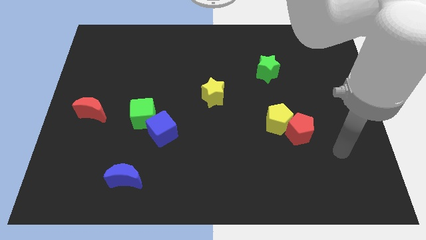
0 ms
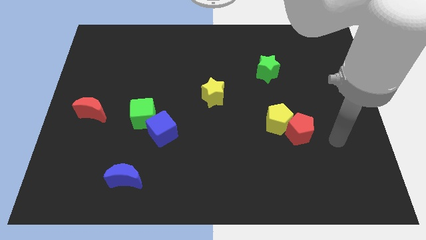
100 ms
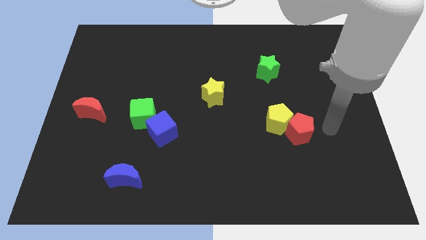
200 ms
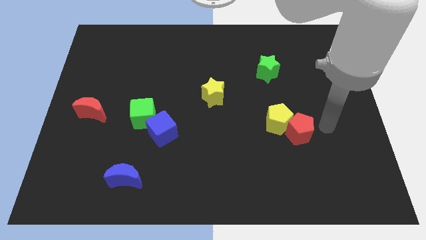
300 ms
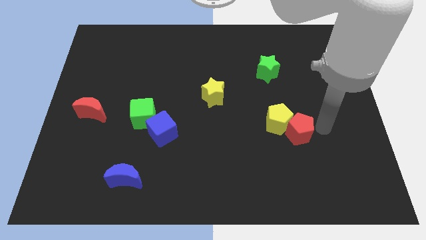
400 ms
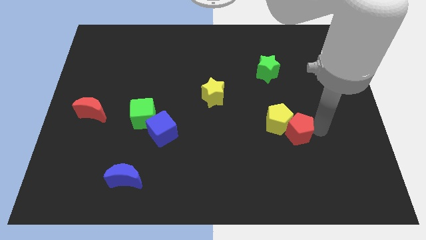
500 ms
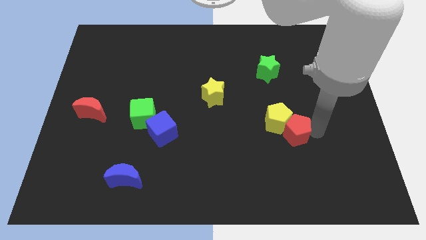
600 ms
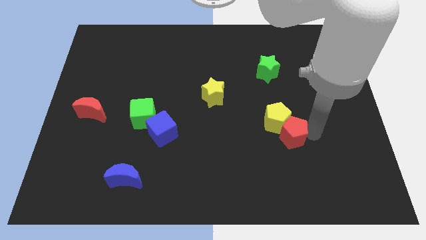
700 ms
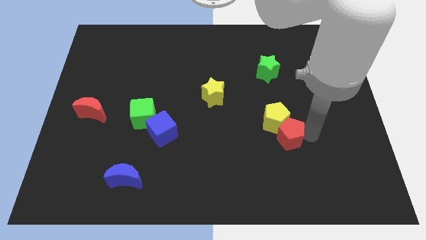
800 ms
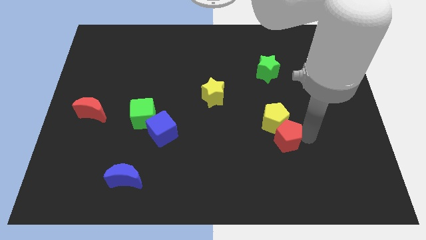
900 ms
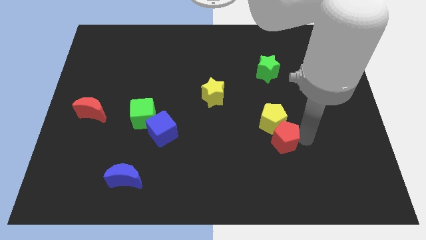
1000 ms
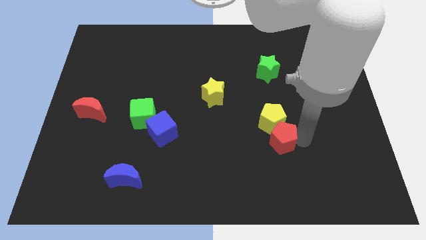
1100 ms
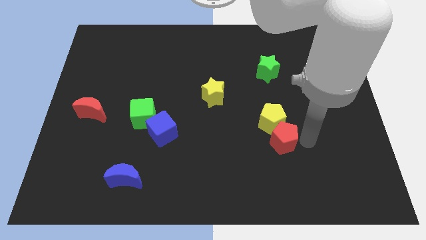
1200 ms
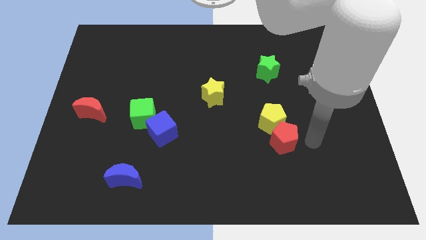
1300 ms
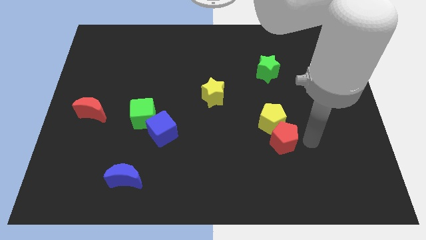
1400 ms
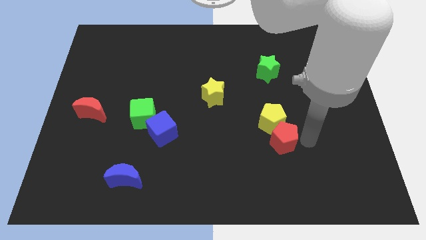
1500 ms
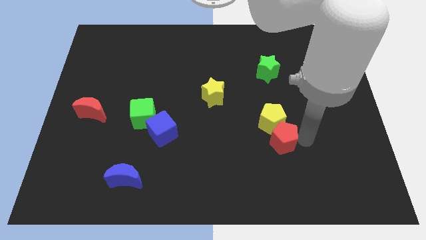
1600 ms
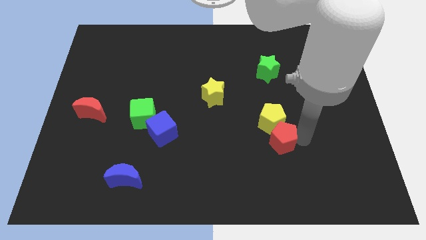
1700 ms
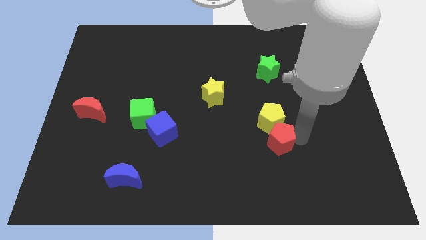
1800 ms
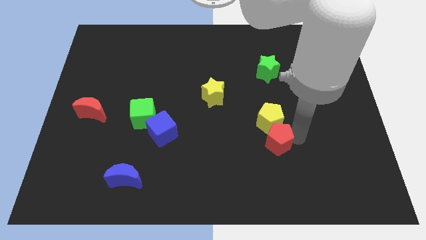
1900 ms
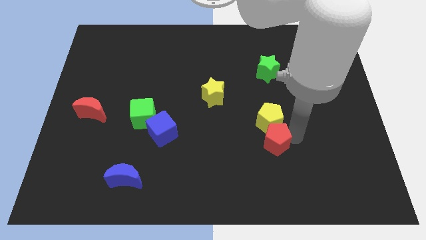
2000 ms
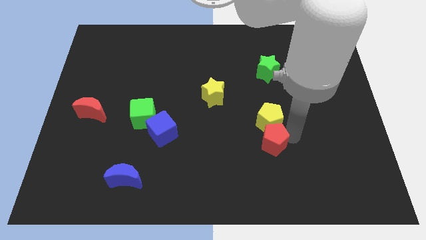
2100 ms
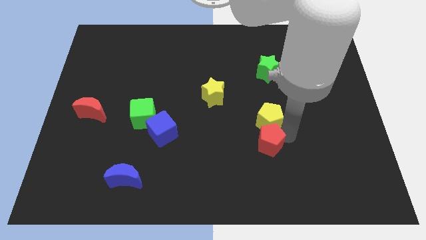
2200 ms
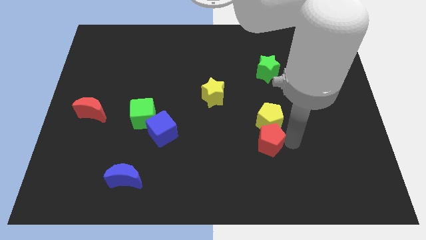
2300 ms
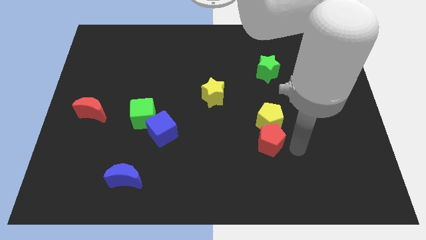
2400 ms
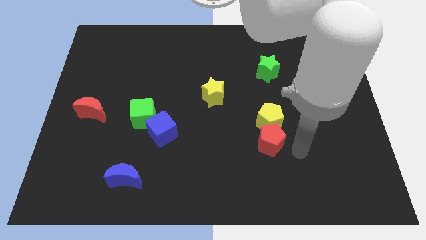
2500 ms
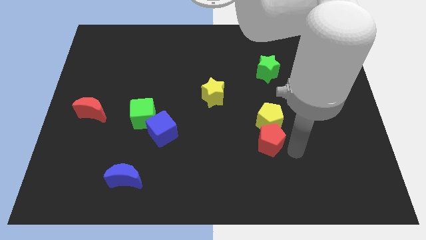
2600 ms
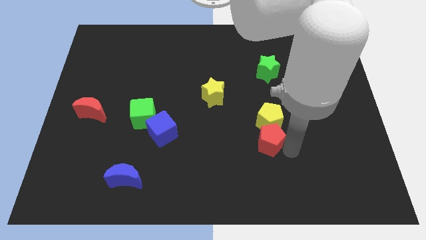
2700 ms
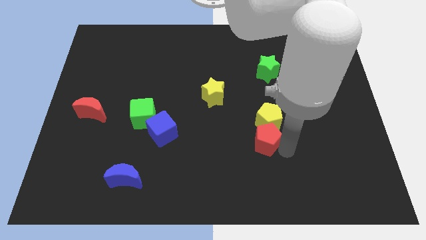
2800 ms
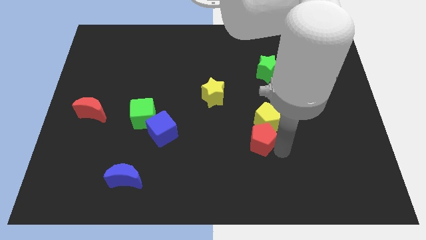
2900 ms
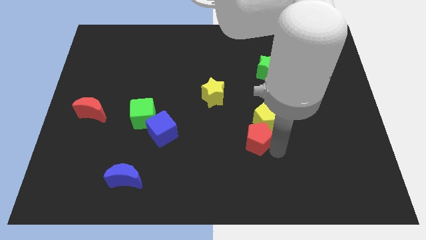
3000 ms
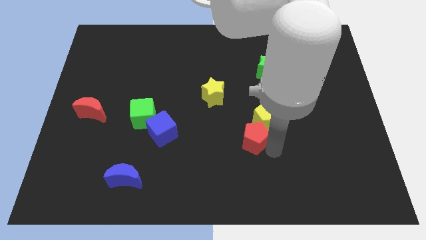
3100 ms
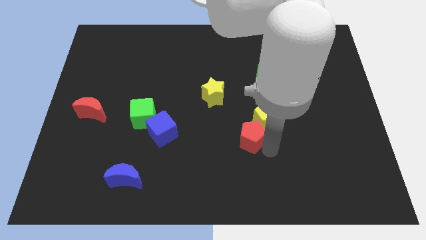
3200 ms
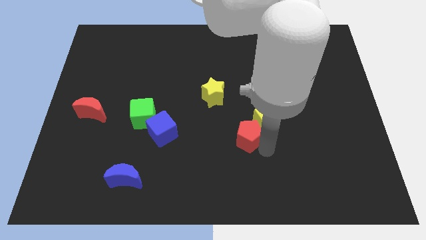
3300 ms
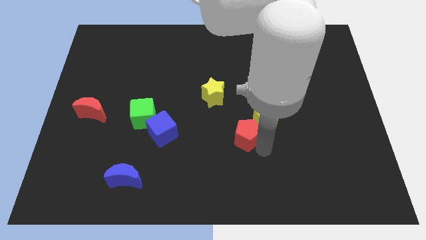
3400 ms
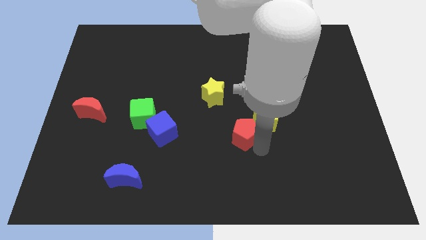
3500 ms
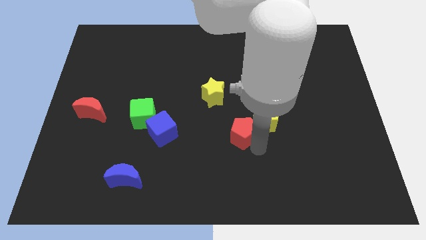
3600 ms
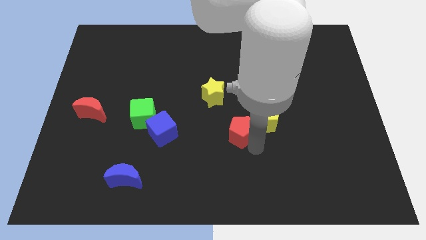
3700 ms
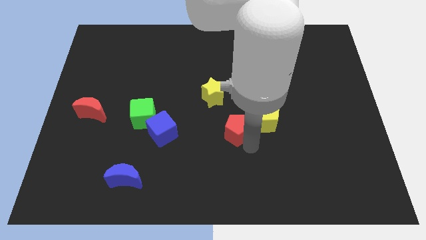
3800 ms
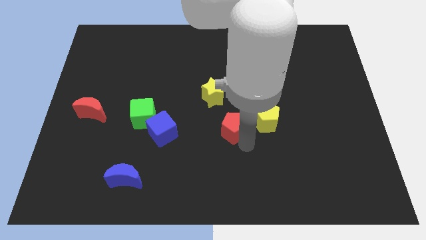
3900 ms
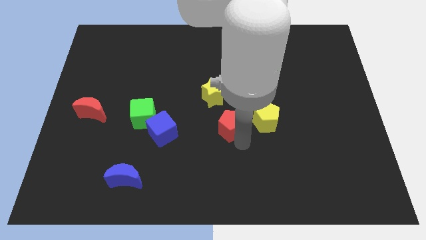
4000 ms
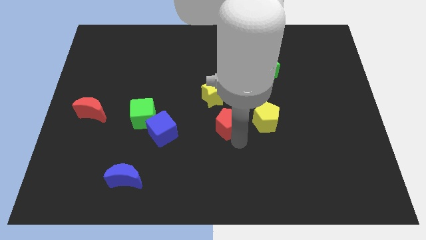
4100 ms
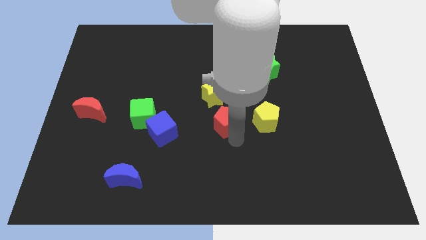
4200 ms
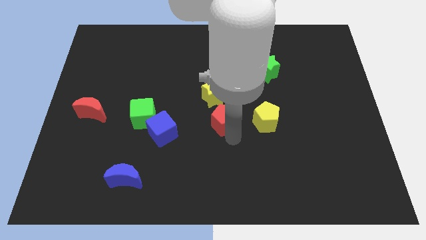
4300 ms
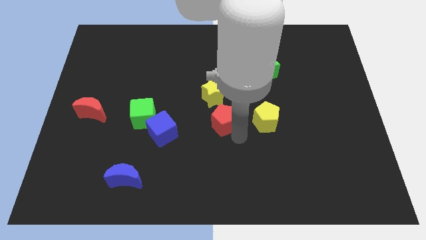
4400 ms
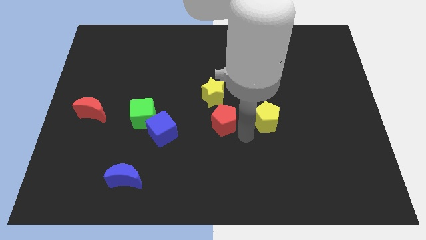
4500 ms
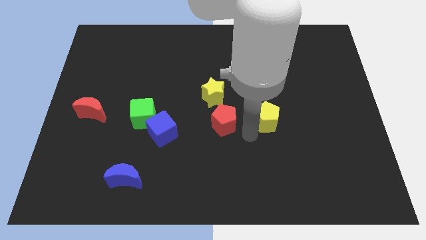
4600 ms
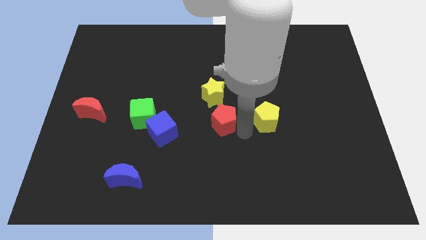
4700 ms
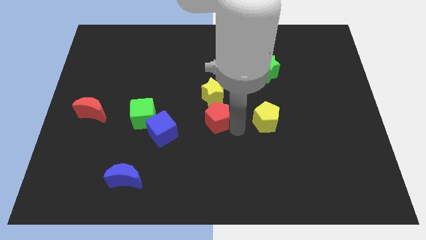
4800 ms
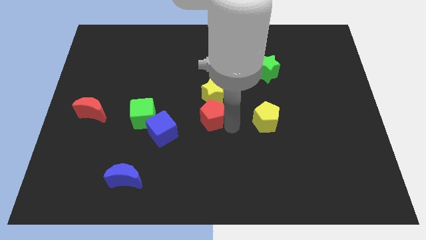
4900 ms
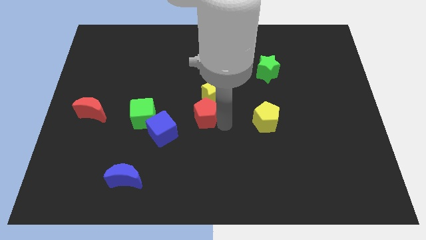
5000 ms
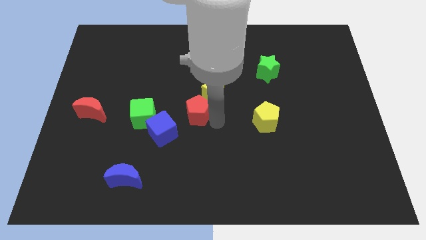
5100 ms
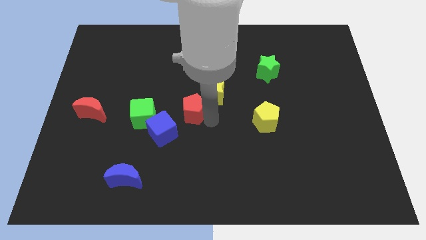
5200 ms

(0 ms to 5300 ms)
put the red pentagon to the left side of the yellow star

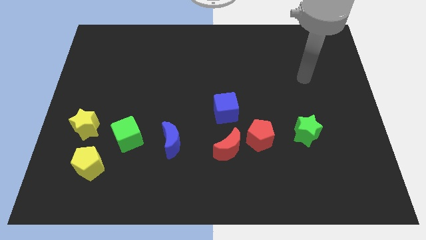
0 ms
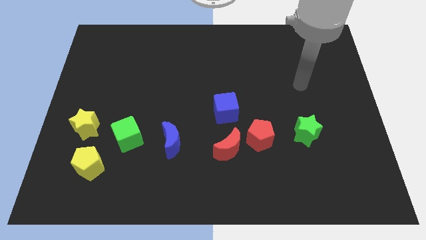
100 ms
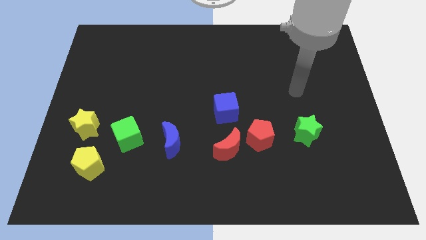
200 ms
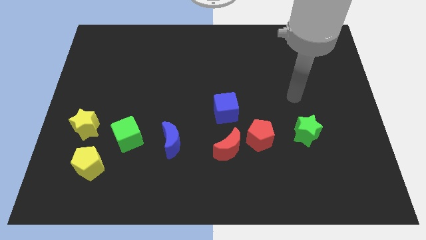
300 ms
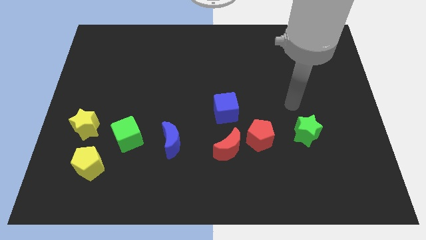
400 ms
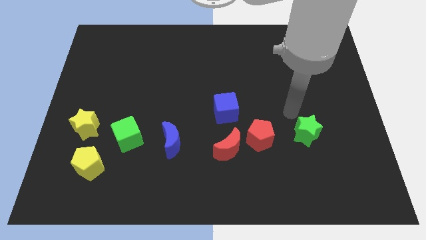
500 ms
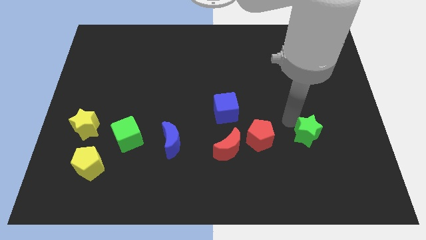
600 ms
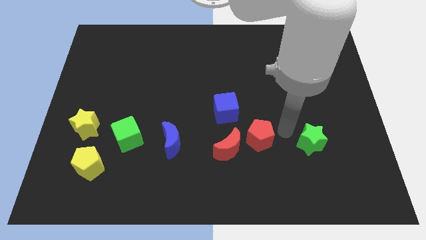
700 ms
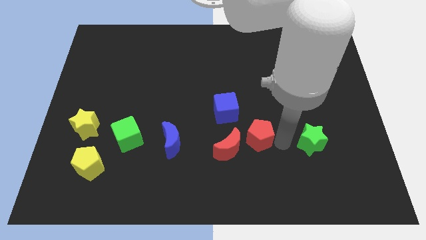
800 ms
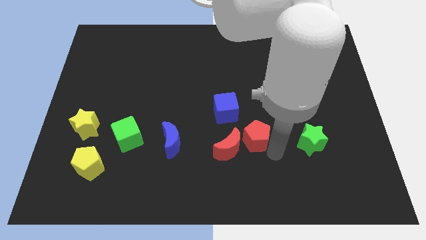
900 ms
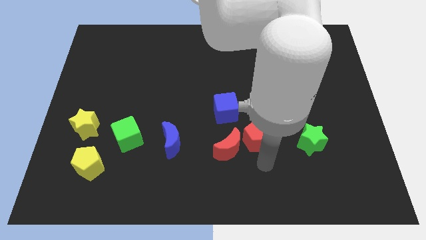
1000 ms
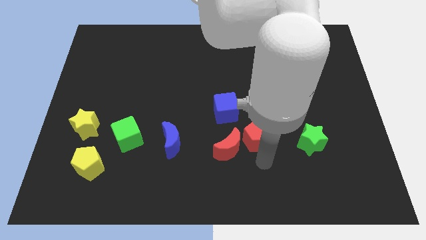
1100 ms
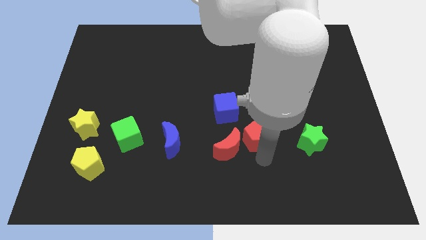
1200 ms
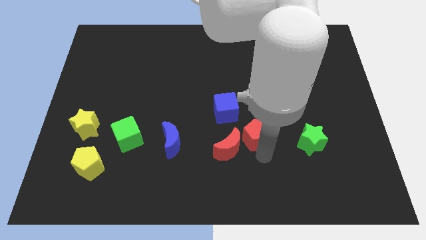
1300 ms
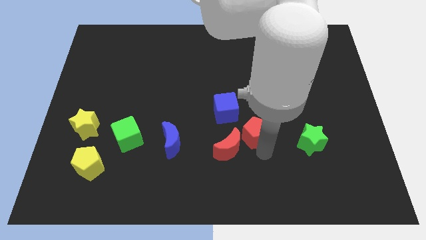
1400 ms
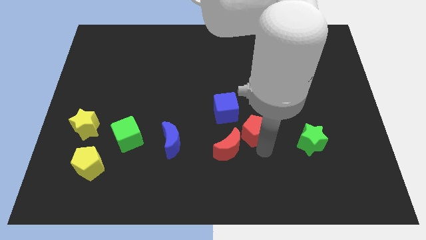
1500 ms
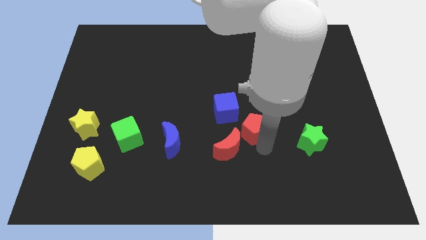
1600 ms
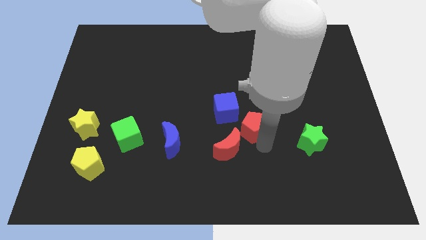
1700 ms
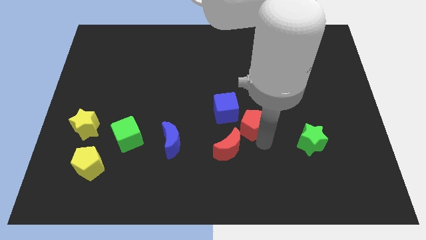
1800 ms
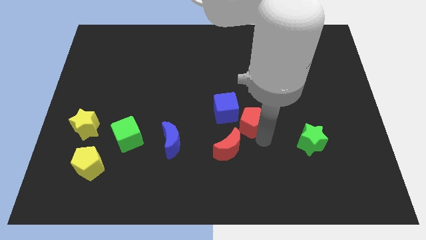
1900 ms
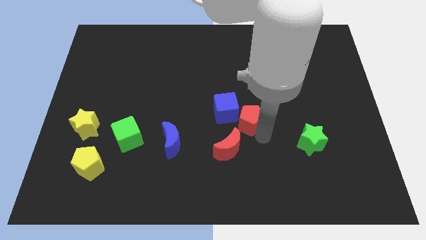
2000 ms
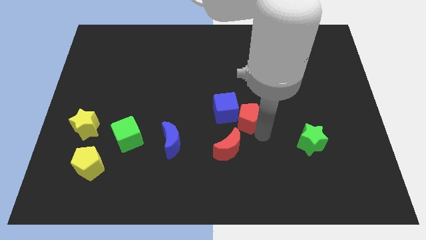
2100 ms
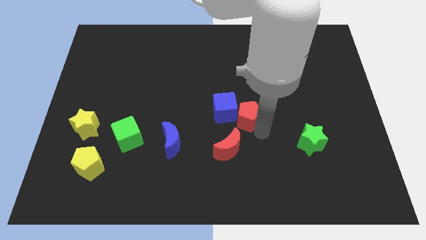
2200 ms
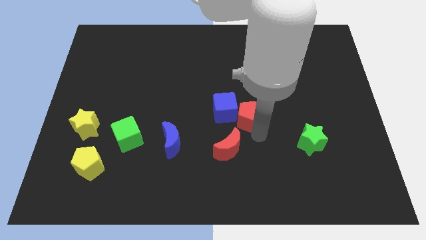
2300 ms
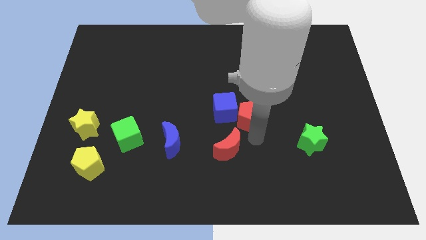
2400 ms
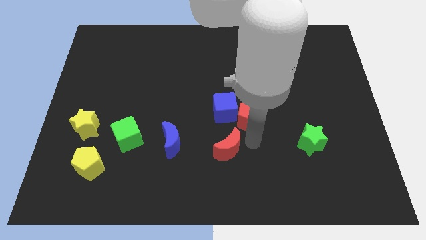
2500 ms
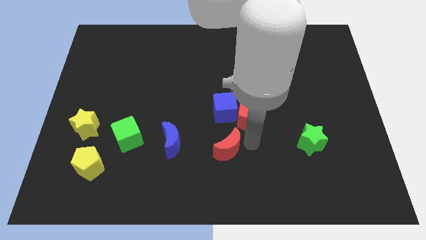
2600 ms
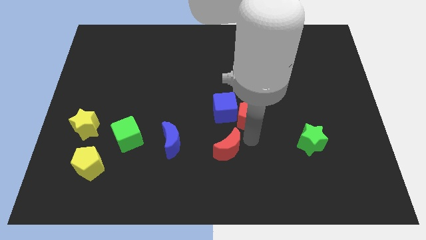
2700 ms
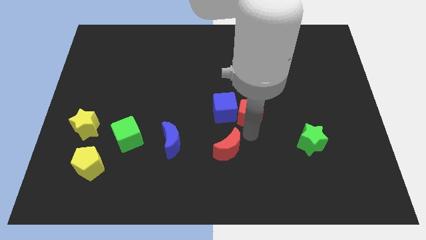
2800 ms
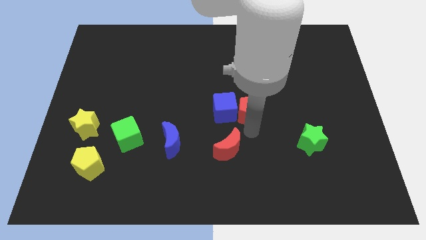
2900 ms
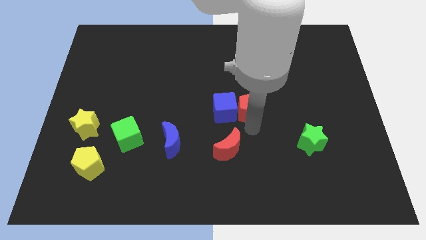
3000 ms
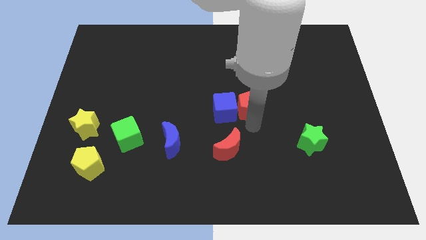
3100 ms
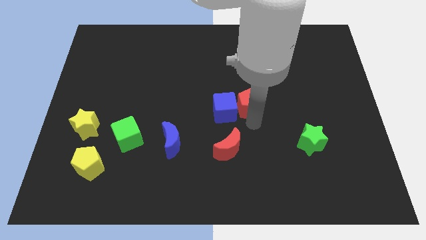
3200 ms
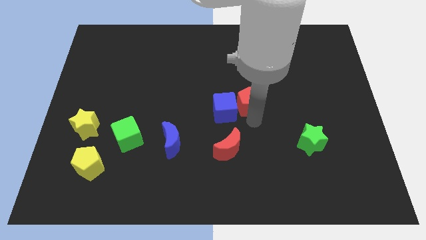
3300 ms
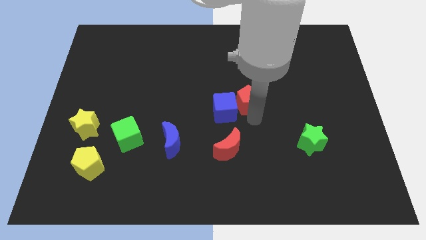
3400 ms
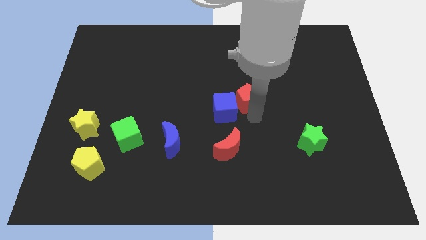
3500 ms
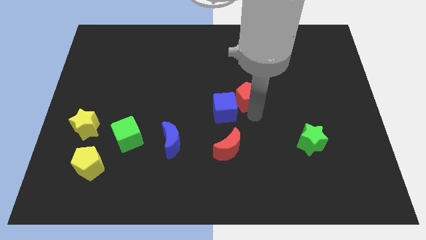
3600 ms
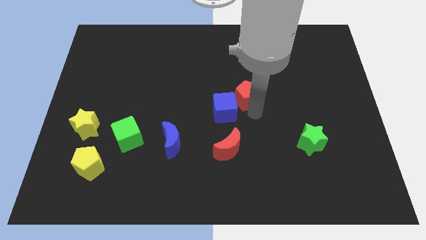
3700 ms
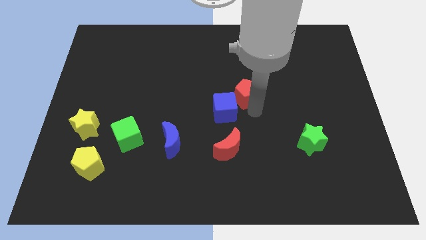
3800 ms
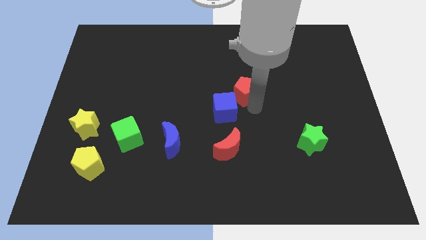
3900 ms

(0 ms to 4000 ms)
slide the red pentagon to the top side of the blue cube
